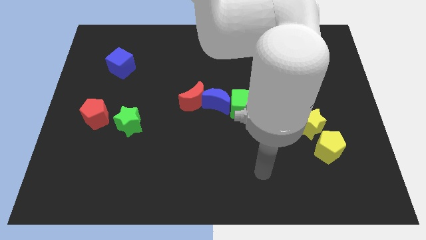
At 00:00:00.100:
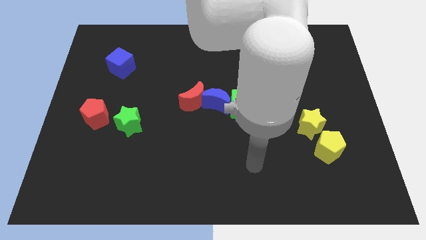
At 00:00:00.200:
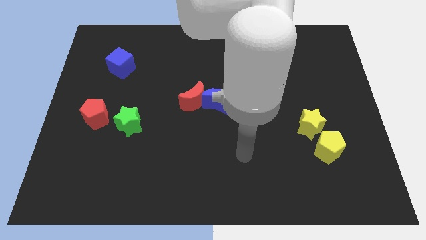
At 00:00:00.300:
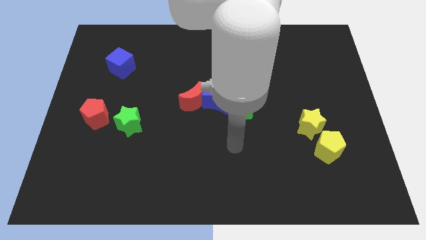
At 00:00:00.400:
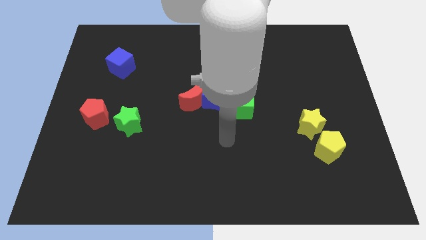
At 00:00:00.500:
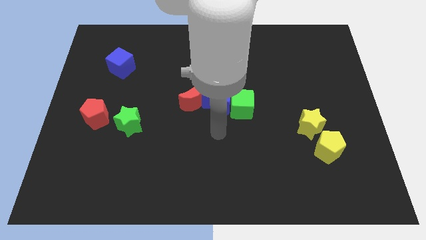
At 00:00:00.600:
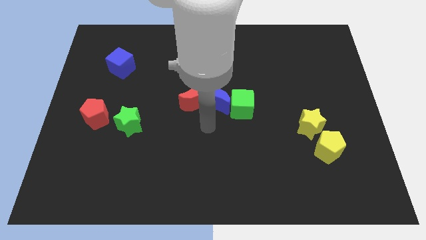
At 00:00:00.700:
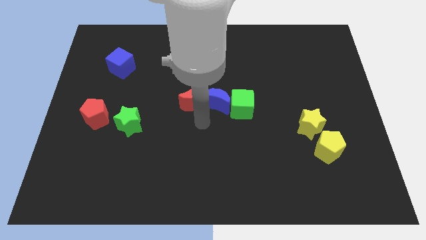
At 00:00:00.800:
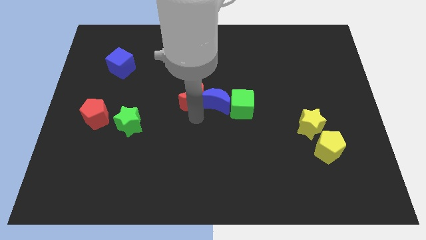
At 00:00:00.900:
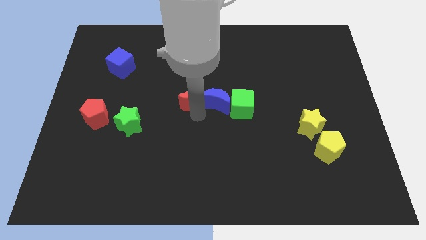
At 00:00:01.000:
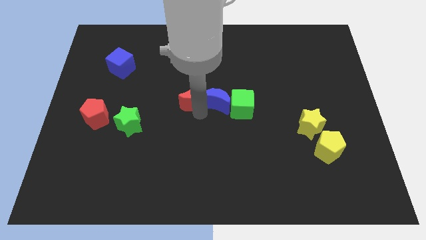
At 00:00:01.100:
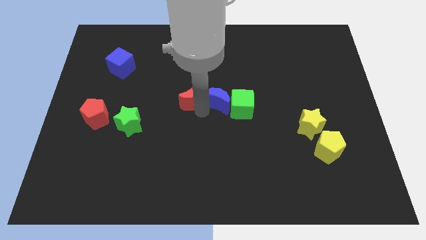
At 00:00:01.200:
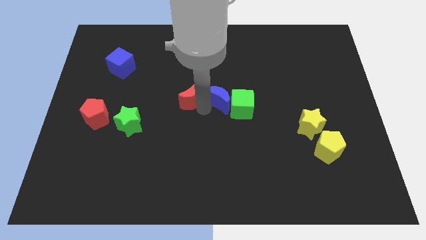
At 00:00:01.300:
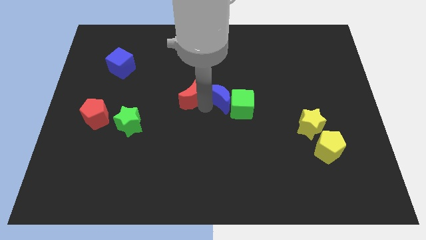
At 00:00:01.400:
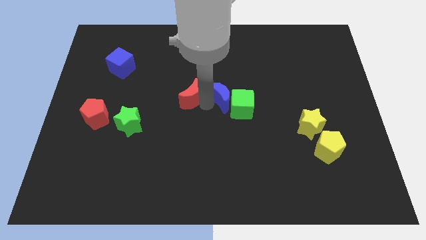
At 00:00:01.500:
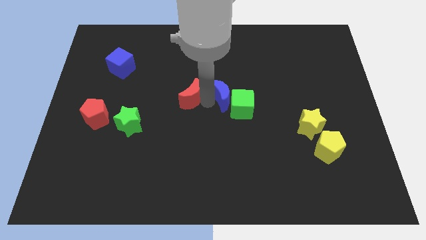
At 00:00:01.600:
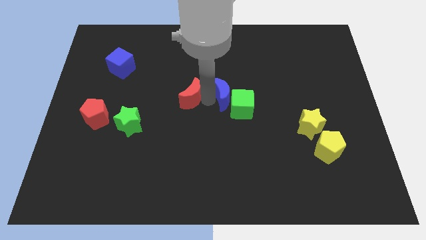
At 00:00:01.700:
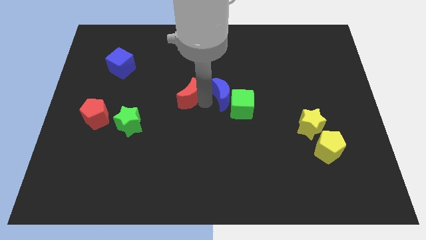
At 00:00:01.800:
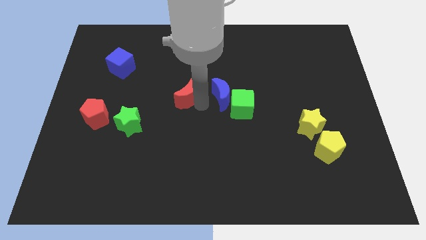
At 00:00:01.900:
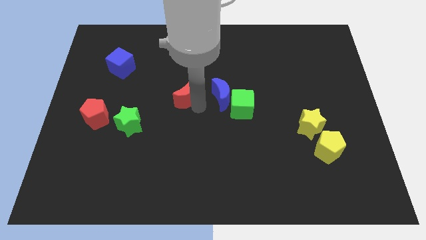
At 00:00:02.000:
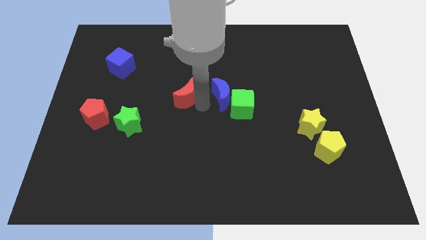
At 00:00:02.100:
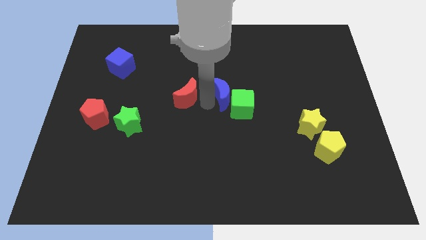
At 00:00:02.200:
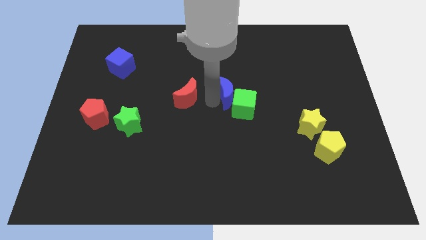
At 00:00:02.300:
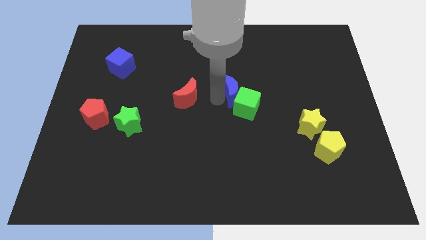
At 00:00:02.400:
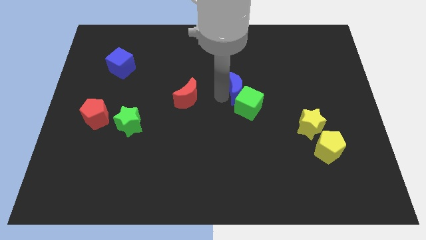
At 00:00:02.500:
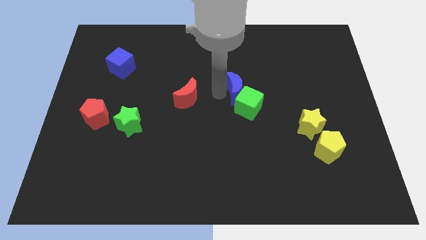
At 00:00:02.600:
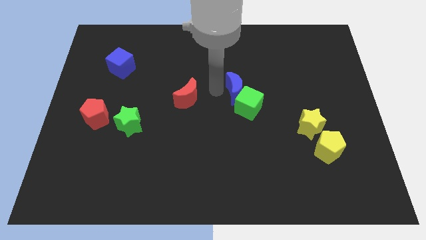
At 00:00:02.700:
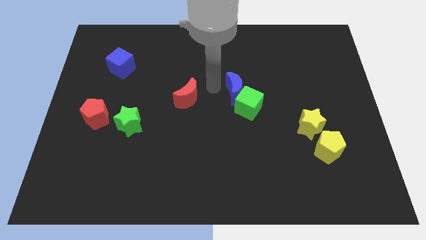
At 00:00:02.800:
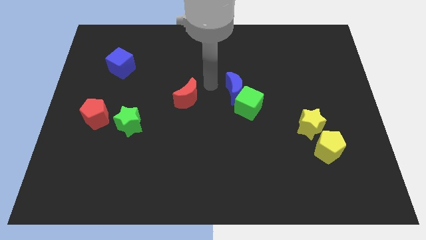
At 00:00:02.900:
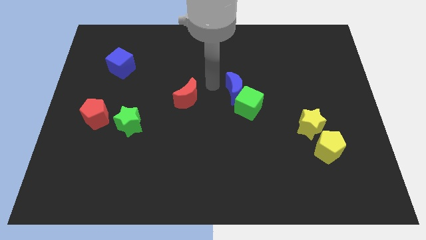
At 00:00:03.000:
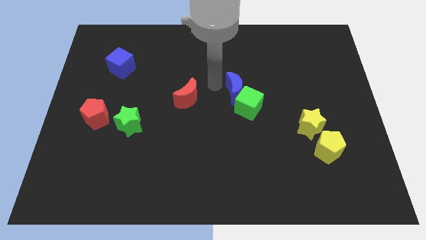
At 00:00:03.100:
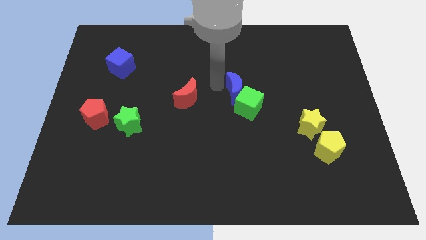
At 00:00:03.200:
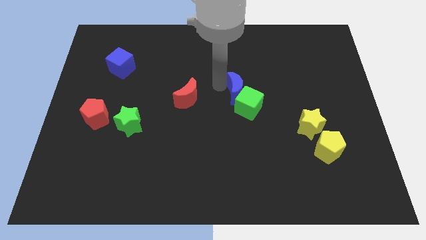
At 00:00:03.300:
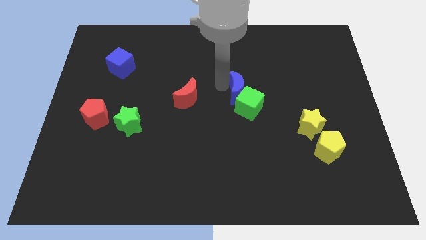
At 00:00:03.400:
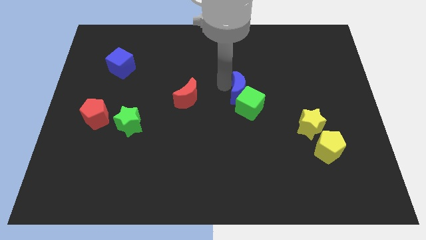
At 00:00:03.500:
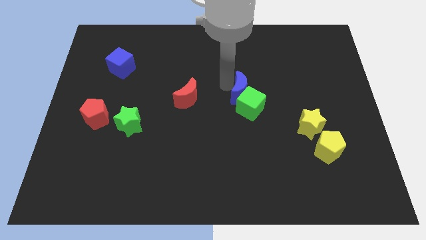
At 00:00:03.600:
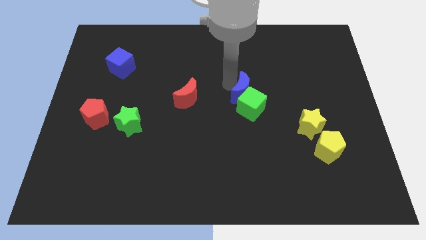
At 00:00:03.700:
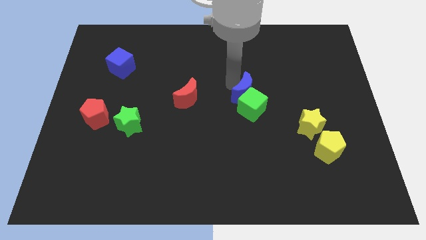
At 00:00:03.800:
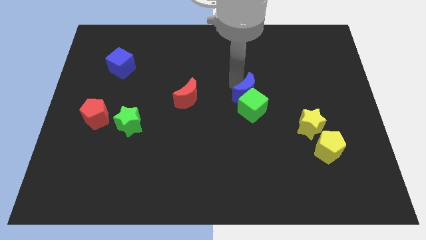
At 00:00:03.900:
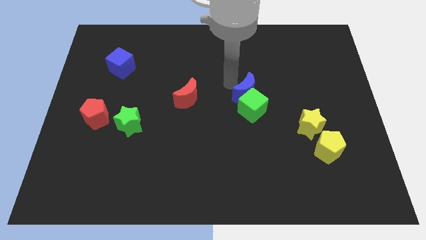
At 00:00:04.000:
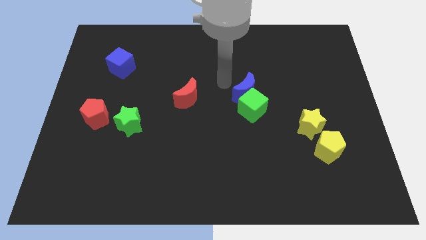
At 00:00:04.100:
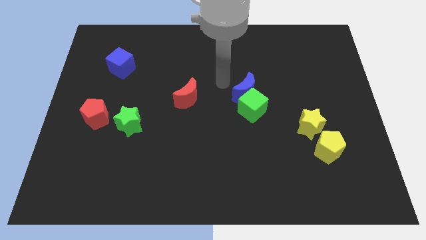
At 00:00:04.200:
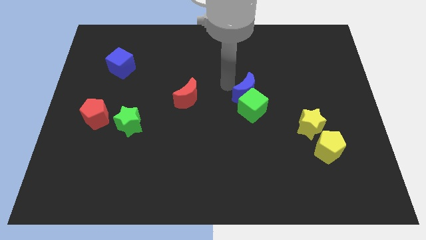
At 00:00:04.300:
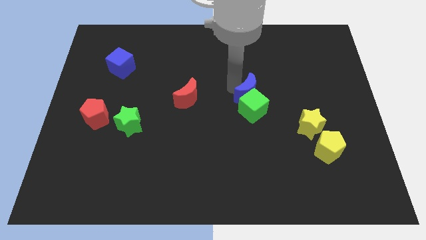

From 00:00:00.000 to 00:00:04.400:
move the blue moon right a bit

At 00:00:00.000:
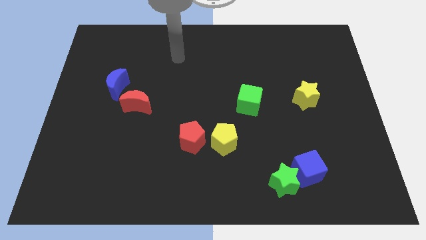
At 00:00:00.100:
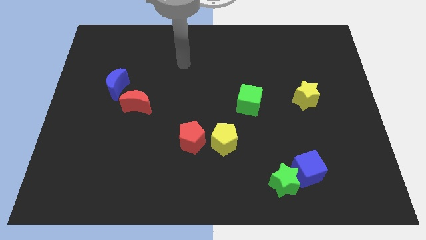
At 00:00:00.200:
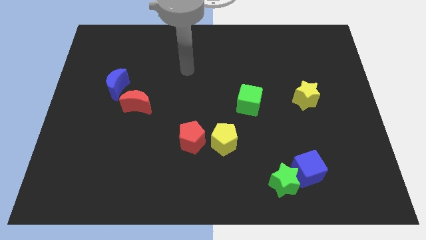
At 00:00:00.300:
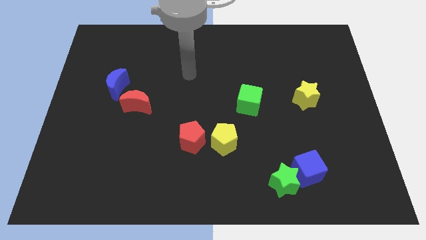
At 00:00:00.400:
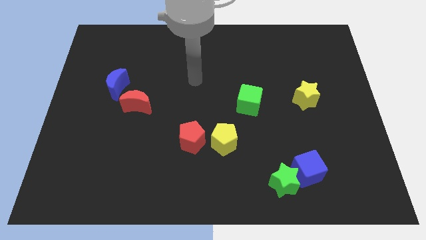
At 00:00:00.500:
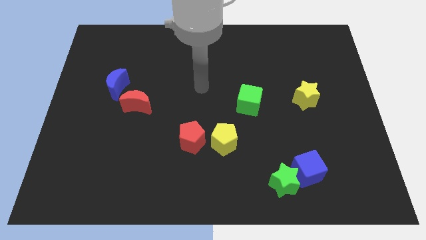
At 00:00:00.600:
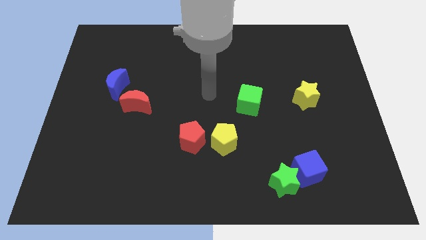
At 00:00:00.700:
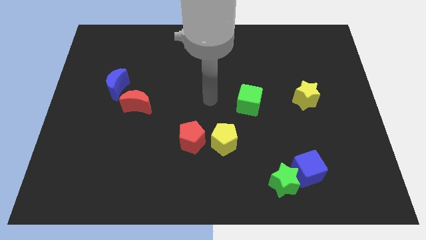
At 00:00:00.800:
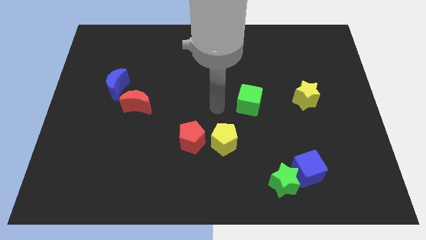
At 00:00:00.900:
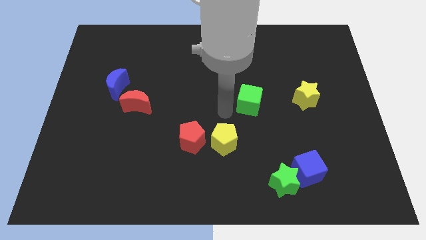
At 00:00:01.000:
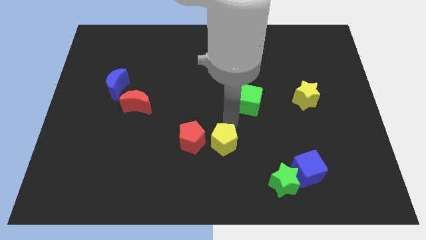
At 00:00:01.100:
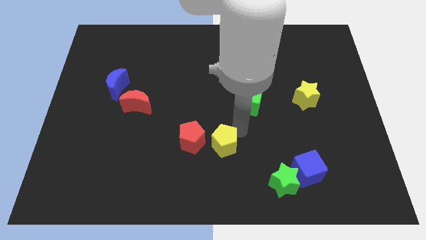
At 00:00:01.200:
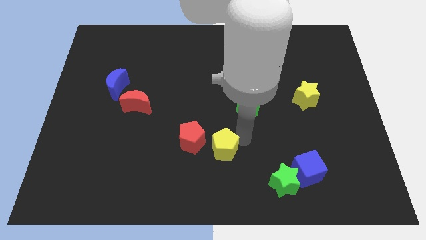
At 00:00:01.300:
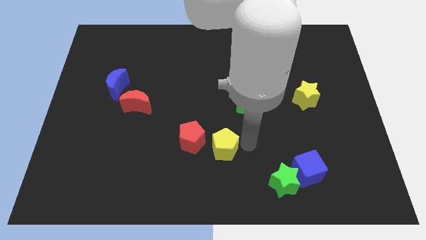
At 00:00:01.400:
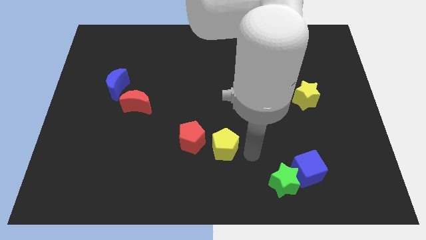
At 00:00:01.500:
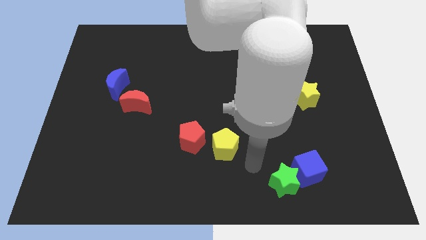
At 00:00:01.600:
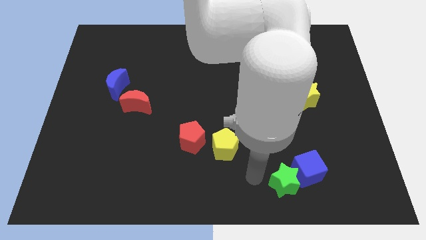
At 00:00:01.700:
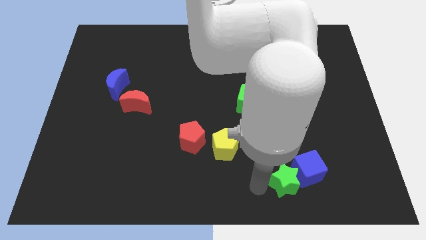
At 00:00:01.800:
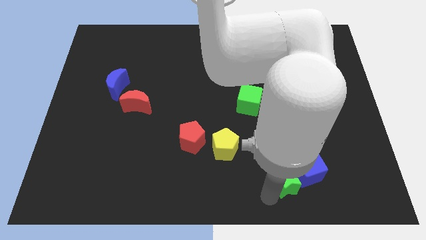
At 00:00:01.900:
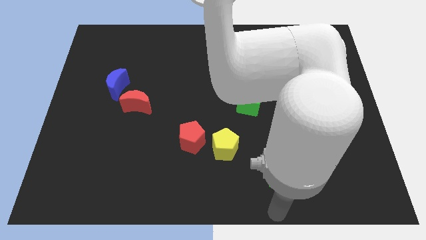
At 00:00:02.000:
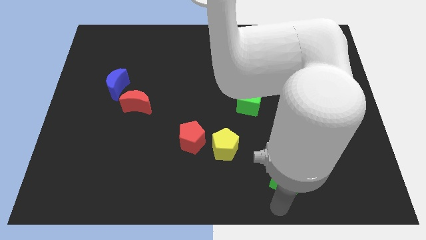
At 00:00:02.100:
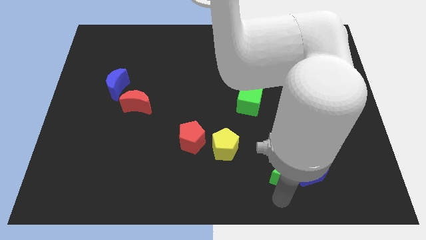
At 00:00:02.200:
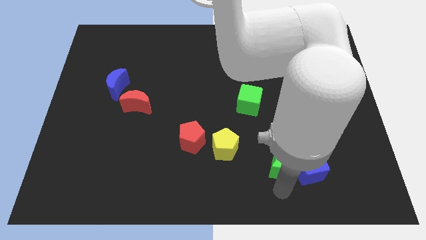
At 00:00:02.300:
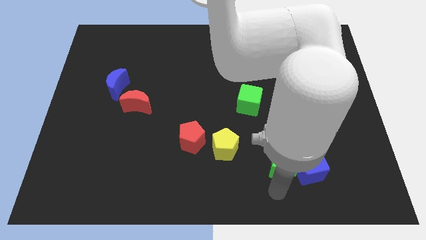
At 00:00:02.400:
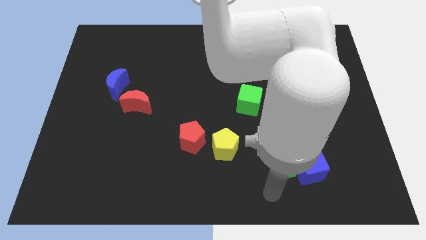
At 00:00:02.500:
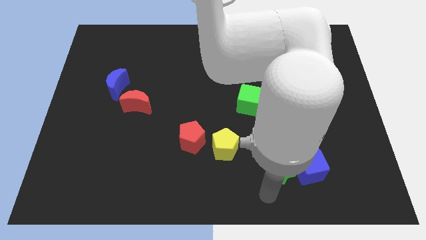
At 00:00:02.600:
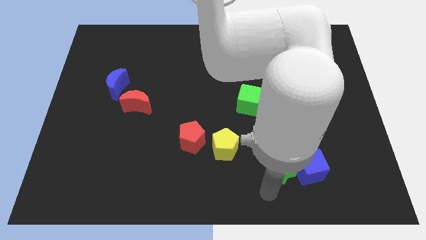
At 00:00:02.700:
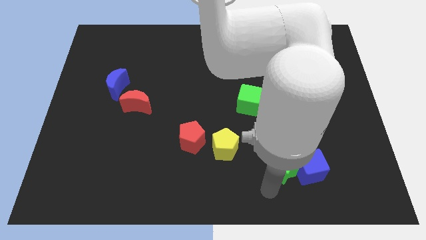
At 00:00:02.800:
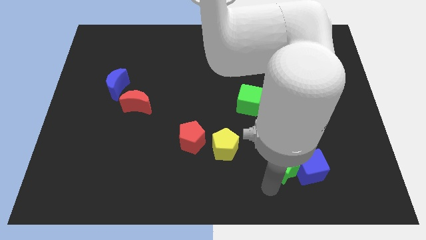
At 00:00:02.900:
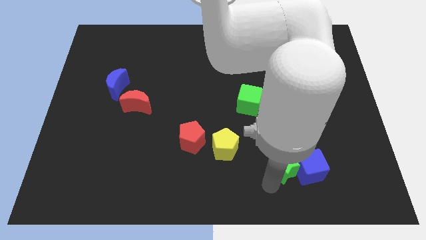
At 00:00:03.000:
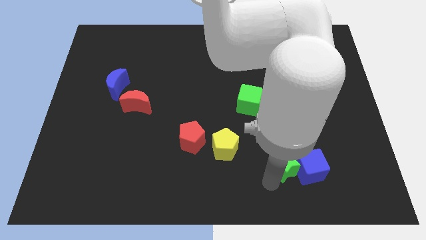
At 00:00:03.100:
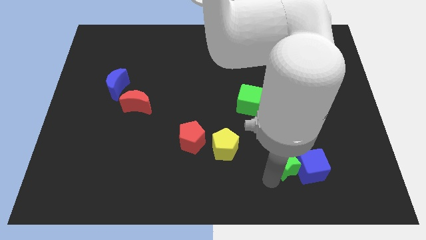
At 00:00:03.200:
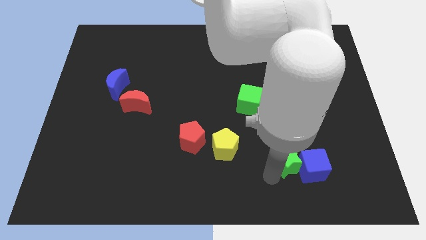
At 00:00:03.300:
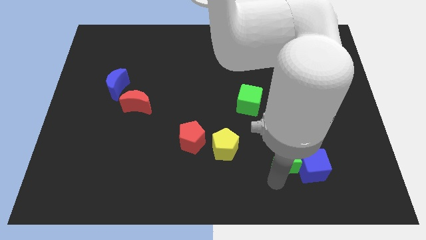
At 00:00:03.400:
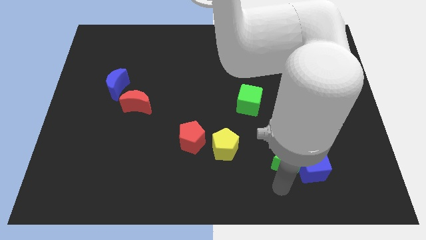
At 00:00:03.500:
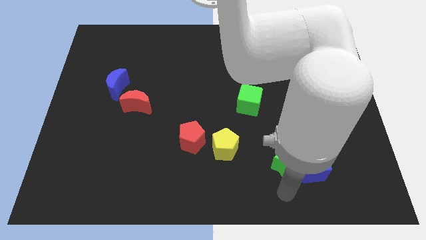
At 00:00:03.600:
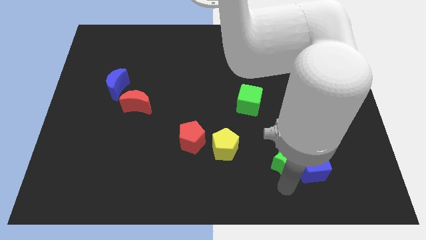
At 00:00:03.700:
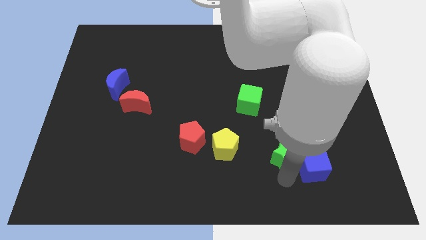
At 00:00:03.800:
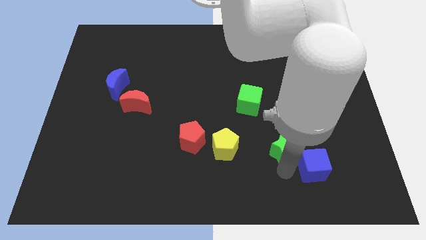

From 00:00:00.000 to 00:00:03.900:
move the green star upwards a little bit
